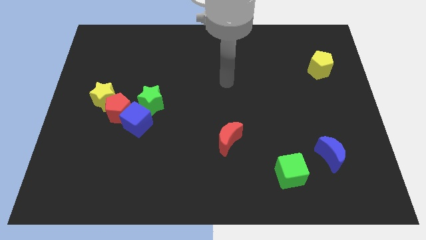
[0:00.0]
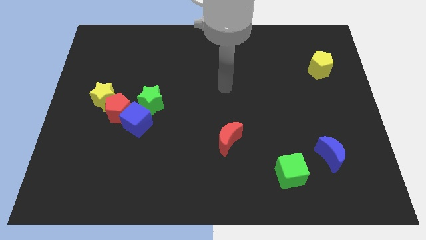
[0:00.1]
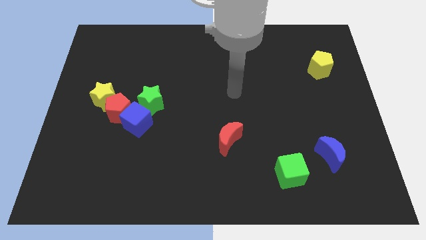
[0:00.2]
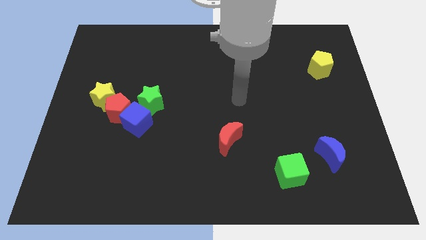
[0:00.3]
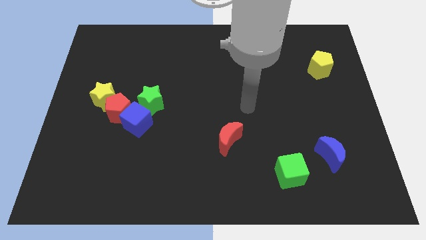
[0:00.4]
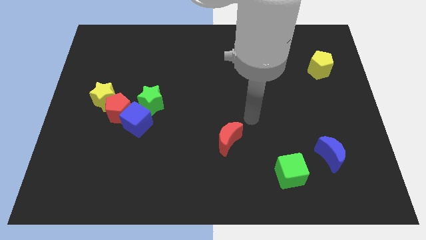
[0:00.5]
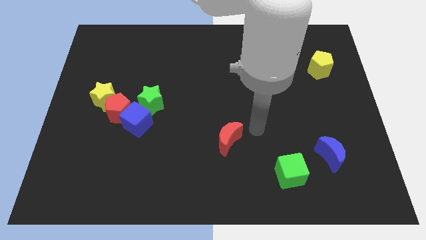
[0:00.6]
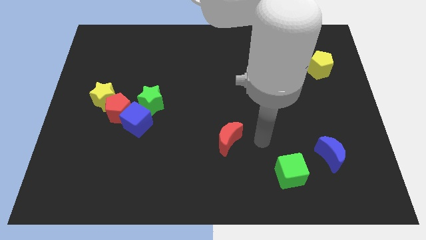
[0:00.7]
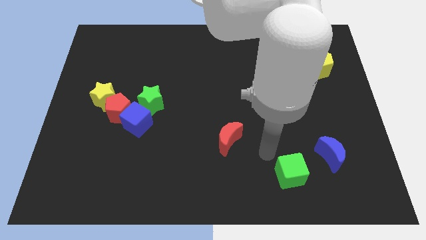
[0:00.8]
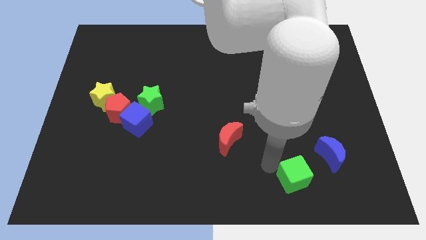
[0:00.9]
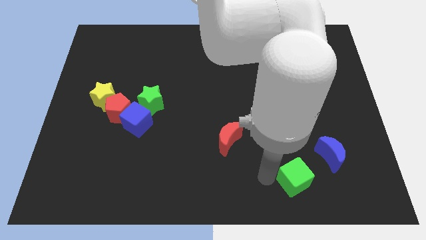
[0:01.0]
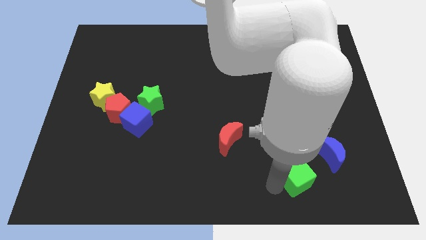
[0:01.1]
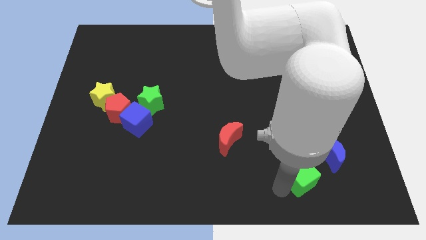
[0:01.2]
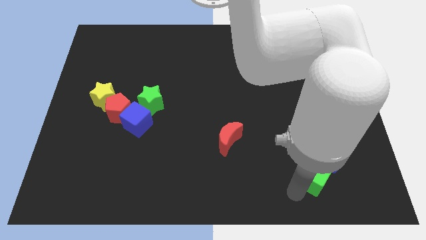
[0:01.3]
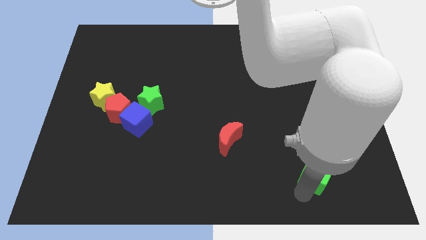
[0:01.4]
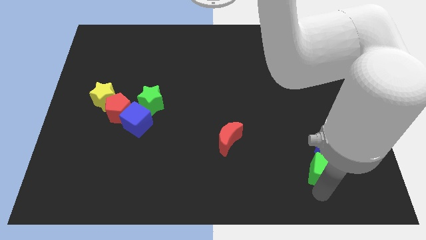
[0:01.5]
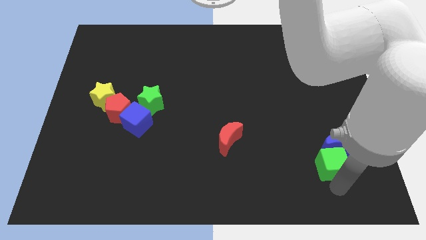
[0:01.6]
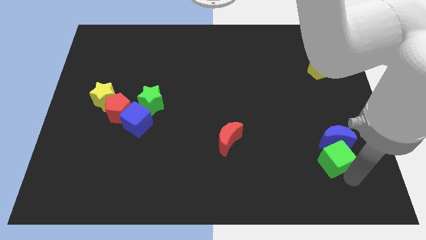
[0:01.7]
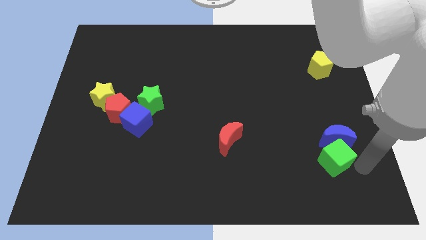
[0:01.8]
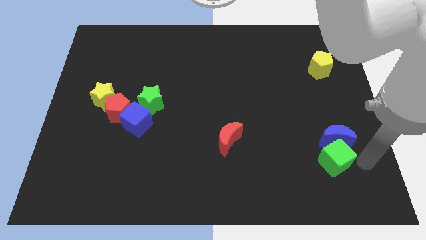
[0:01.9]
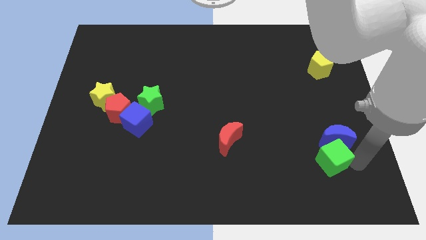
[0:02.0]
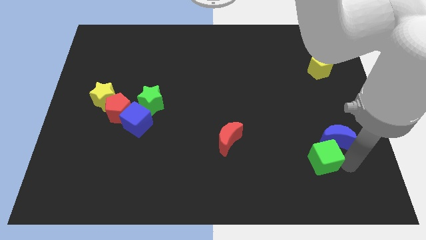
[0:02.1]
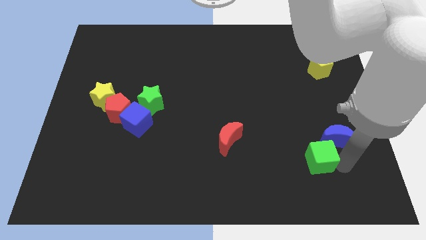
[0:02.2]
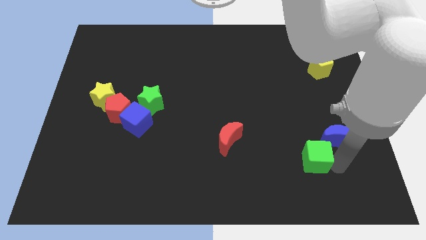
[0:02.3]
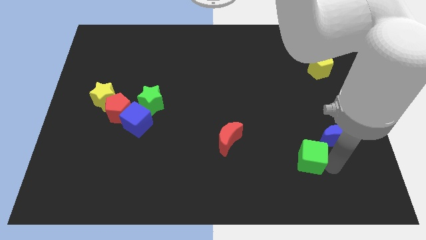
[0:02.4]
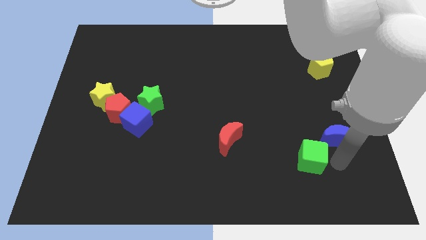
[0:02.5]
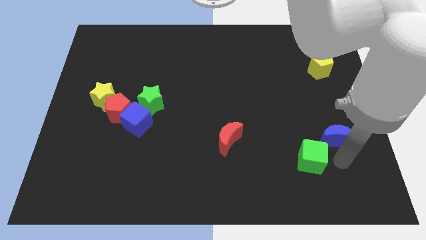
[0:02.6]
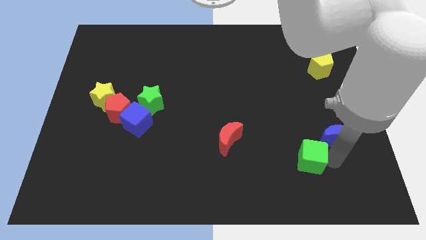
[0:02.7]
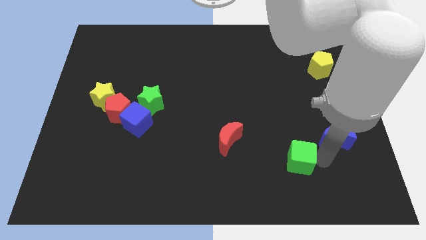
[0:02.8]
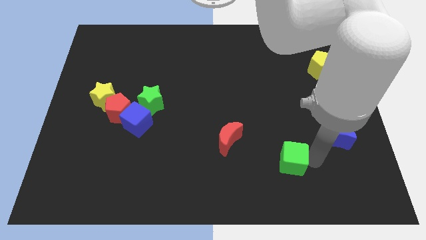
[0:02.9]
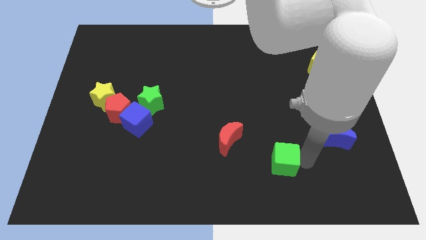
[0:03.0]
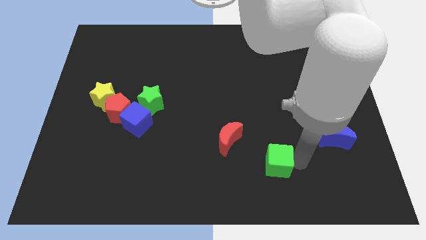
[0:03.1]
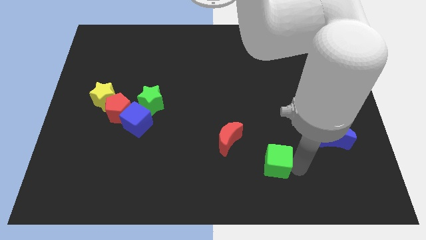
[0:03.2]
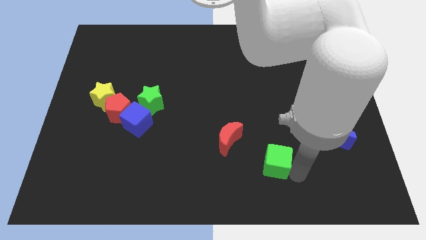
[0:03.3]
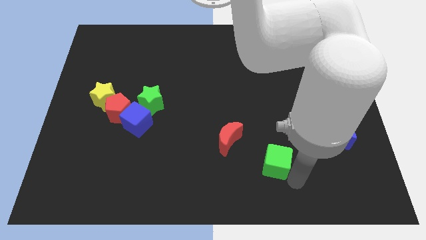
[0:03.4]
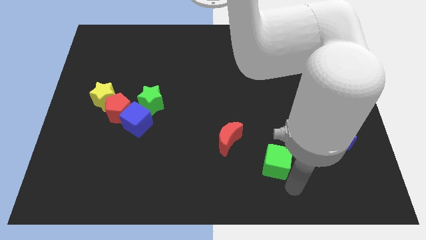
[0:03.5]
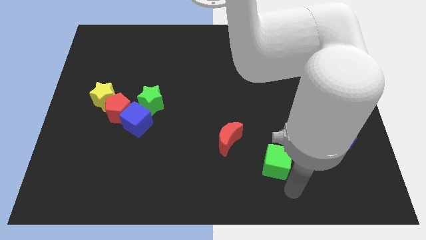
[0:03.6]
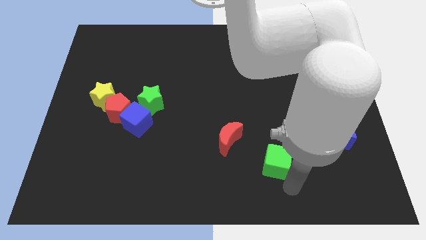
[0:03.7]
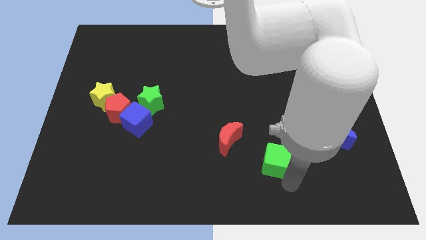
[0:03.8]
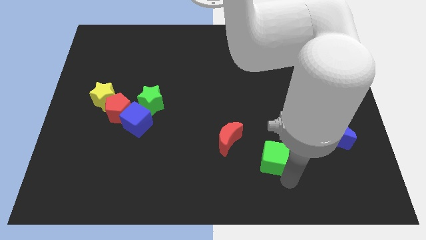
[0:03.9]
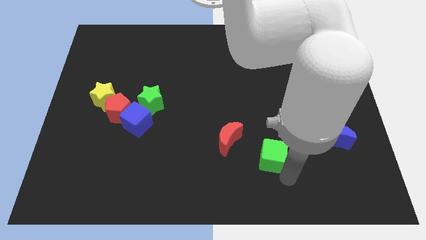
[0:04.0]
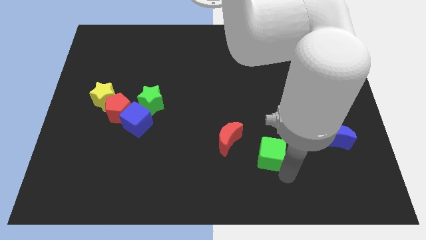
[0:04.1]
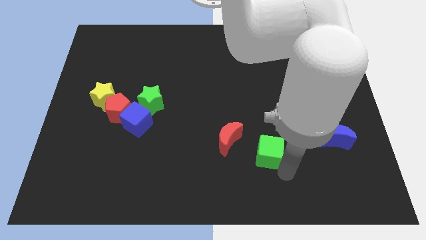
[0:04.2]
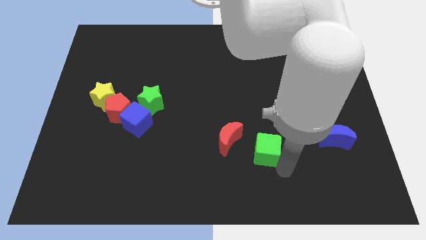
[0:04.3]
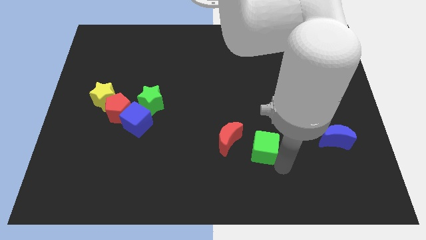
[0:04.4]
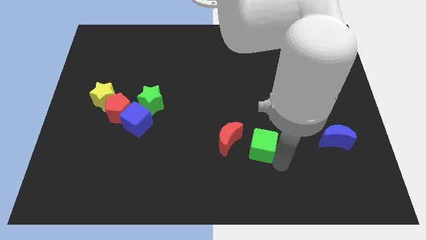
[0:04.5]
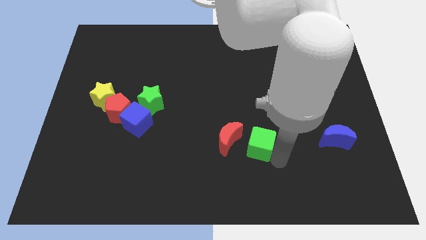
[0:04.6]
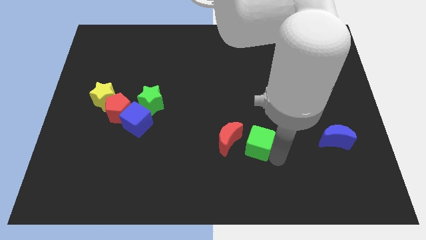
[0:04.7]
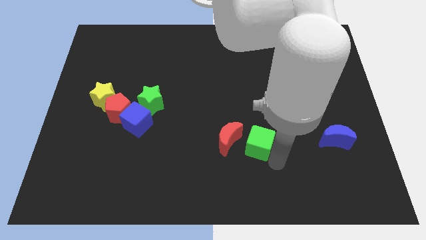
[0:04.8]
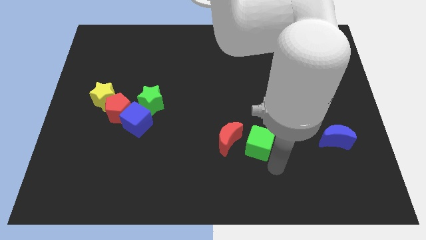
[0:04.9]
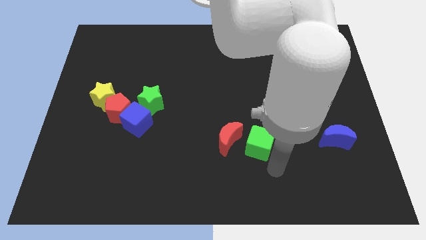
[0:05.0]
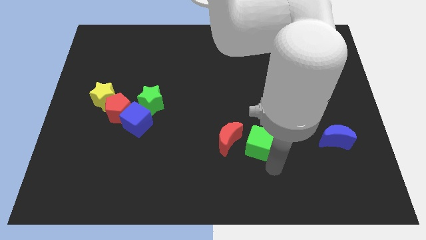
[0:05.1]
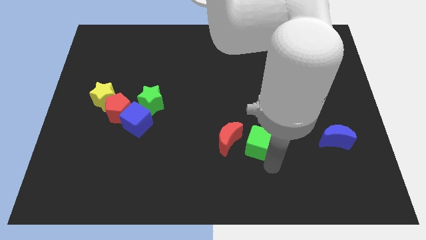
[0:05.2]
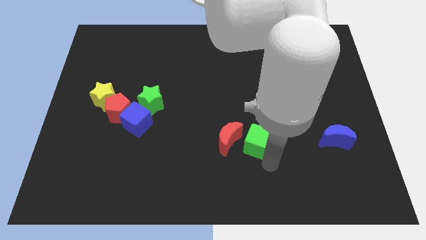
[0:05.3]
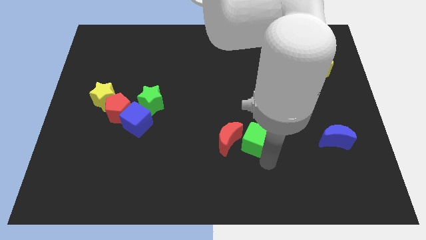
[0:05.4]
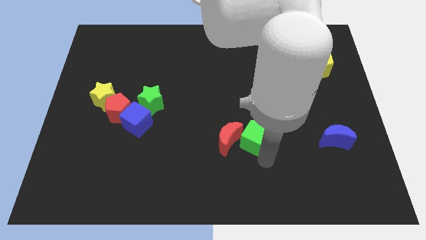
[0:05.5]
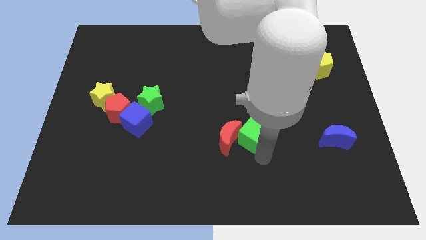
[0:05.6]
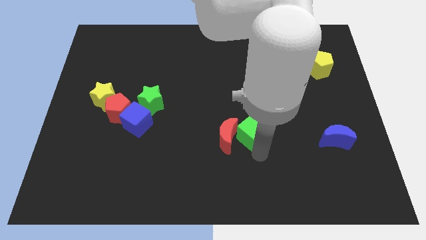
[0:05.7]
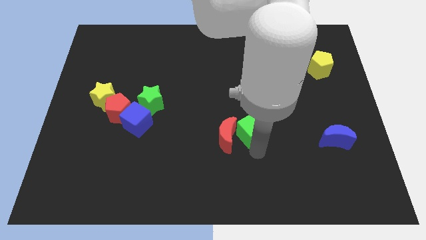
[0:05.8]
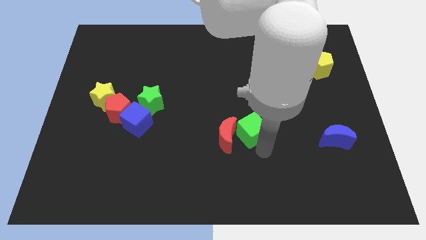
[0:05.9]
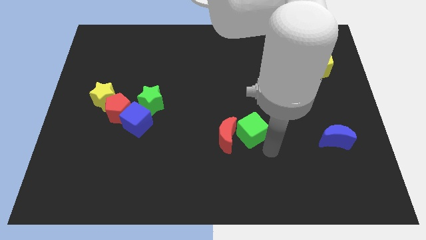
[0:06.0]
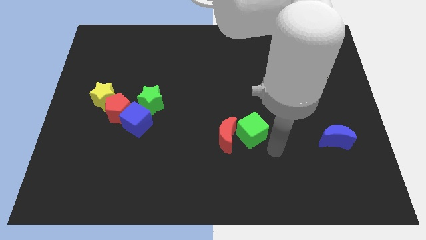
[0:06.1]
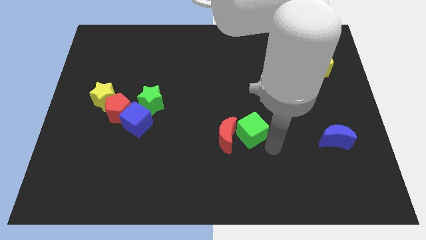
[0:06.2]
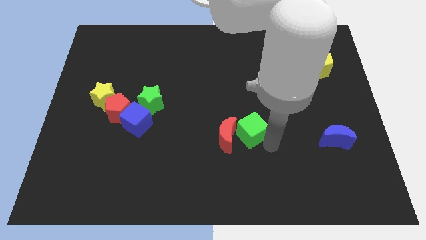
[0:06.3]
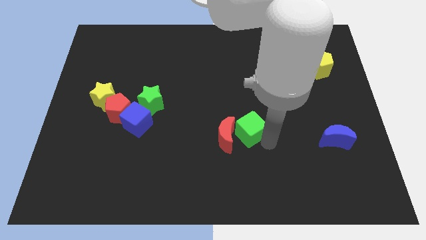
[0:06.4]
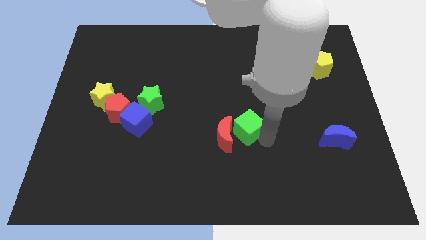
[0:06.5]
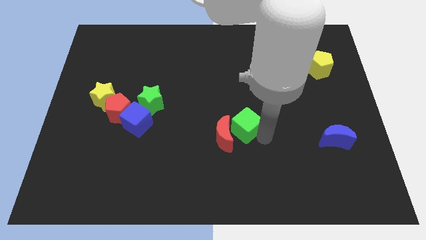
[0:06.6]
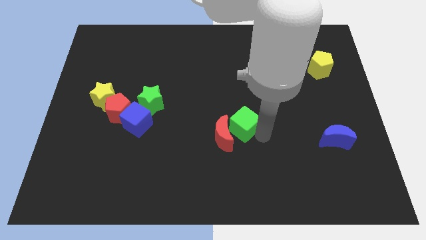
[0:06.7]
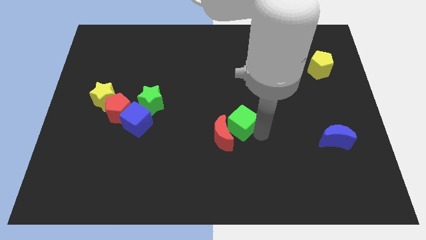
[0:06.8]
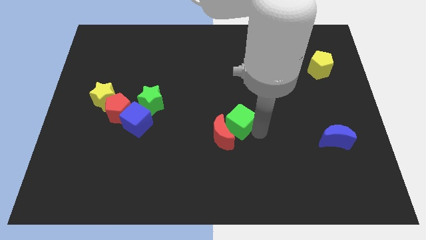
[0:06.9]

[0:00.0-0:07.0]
slide the green cube above the red moon
